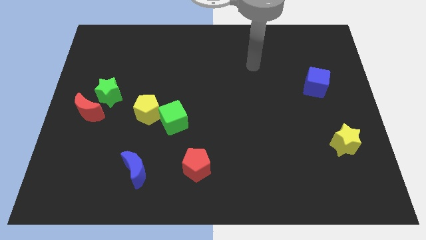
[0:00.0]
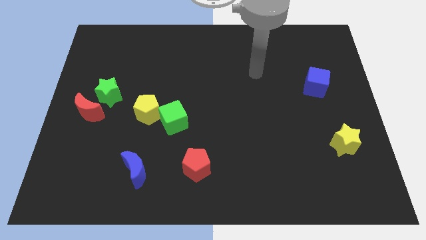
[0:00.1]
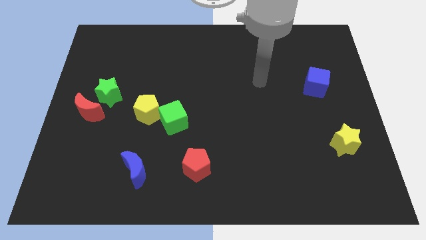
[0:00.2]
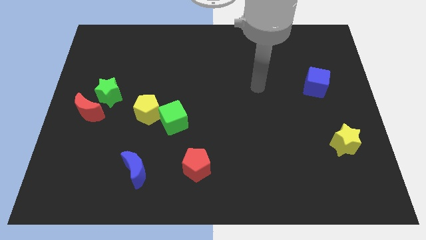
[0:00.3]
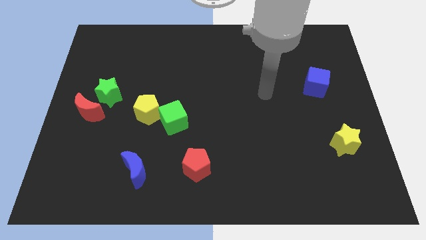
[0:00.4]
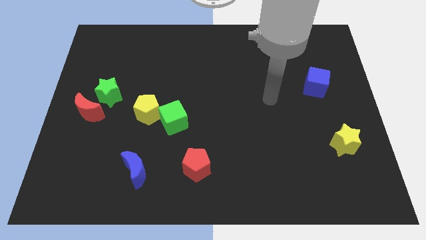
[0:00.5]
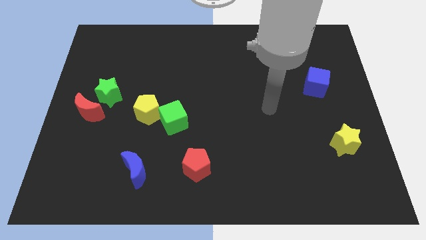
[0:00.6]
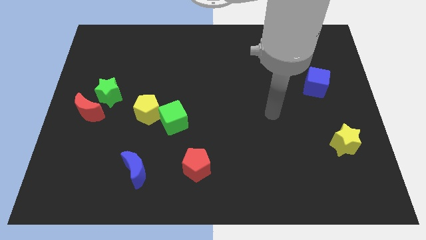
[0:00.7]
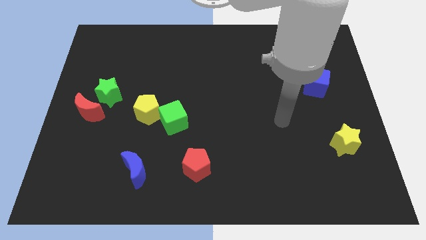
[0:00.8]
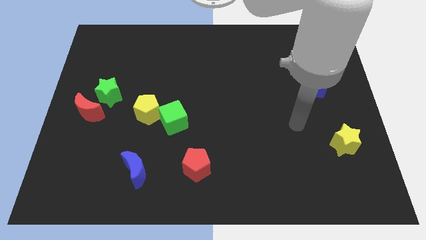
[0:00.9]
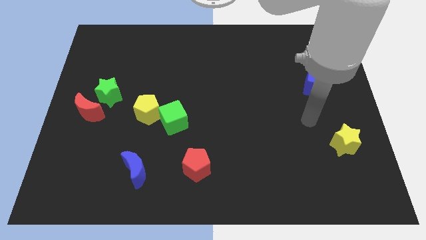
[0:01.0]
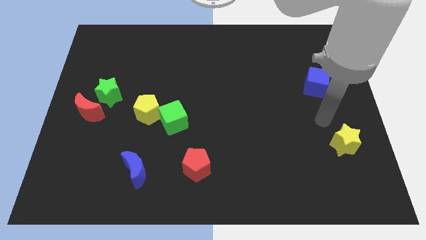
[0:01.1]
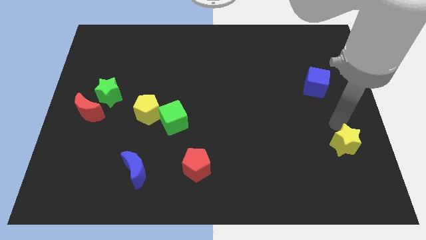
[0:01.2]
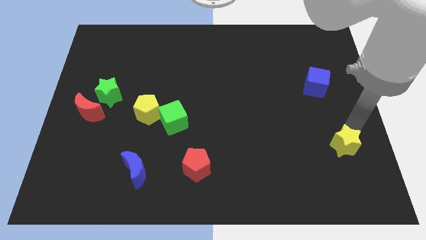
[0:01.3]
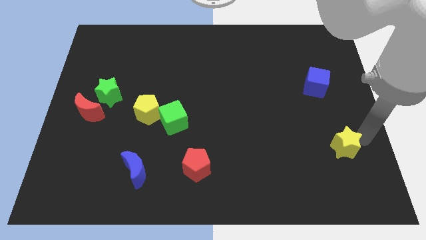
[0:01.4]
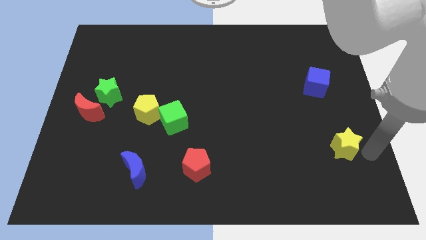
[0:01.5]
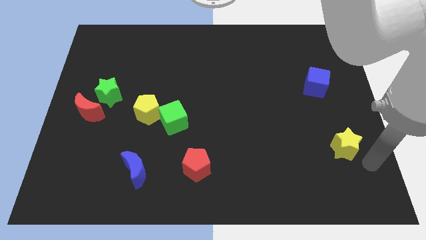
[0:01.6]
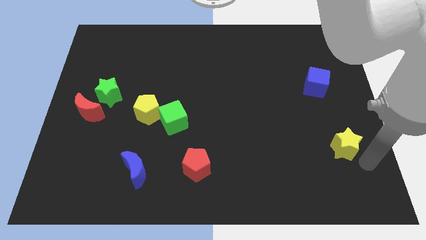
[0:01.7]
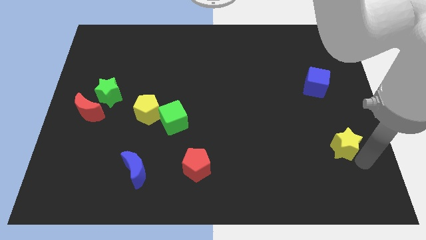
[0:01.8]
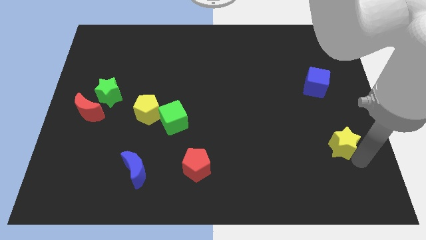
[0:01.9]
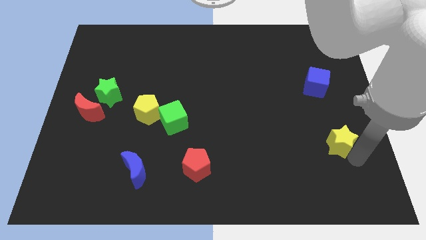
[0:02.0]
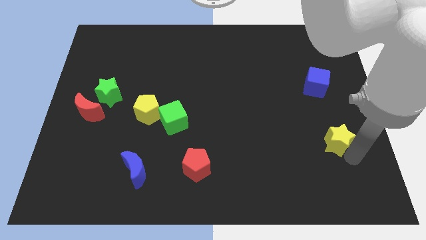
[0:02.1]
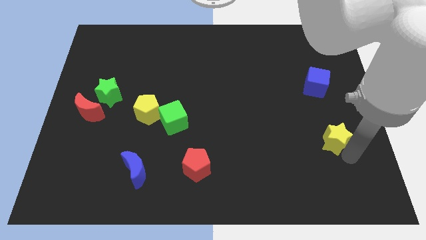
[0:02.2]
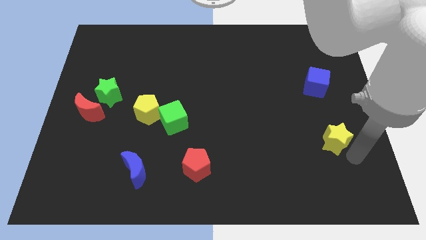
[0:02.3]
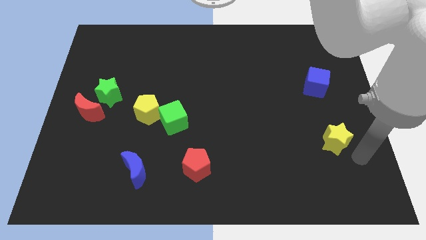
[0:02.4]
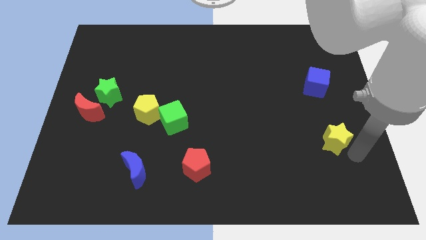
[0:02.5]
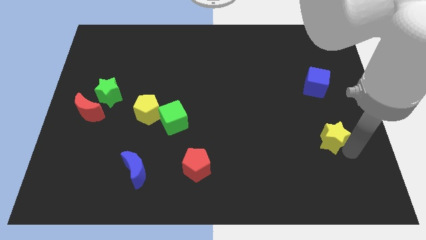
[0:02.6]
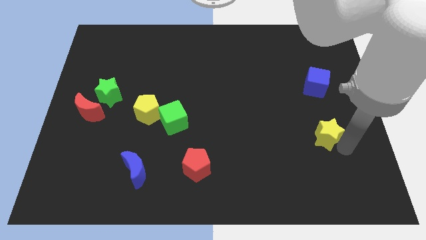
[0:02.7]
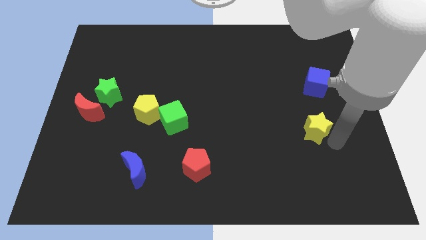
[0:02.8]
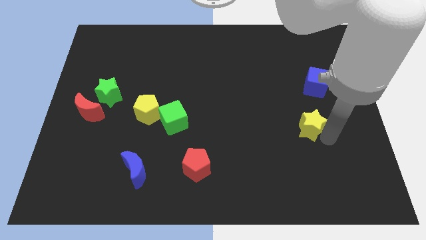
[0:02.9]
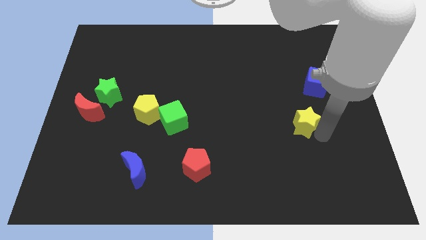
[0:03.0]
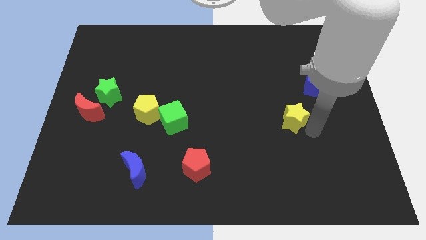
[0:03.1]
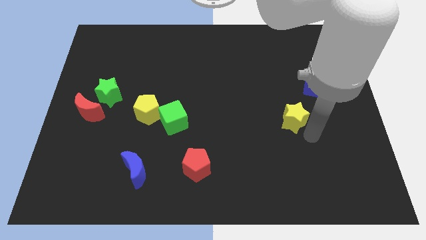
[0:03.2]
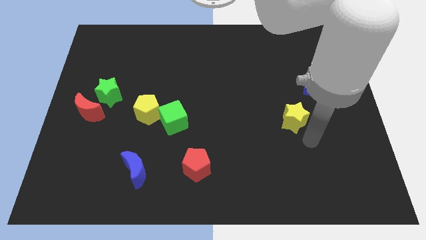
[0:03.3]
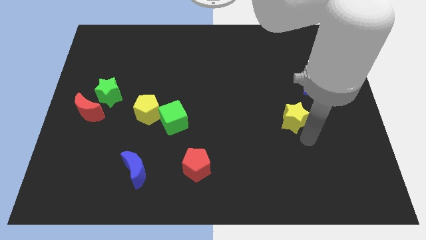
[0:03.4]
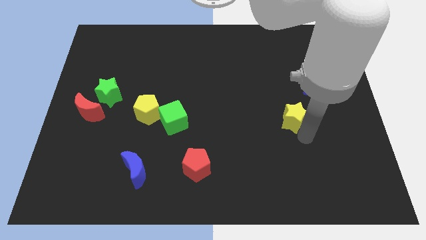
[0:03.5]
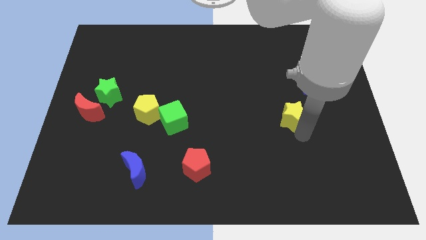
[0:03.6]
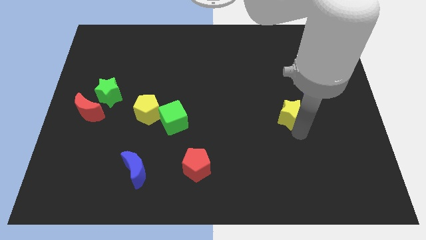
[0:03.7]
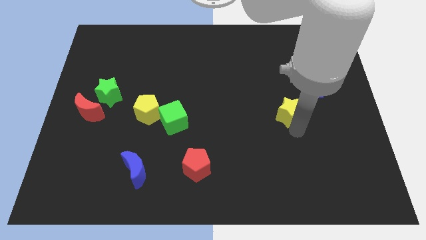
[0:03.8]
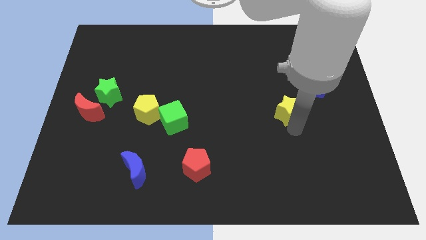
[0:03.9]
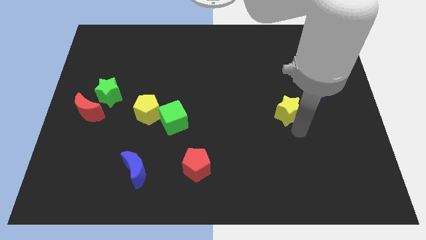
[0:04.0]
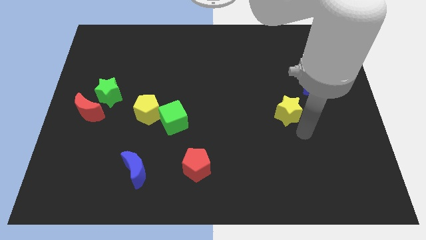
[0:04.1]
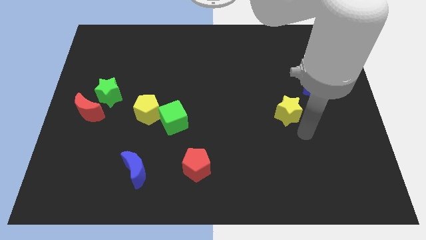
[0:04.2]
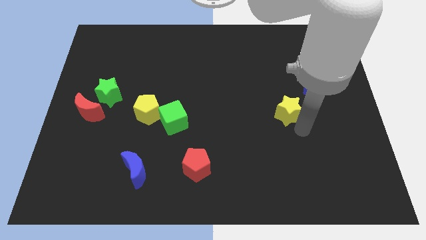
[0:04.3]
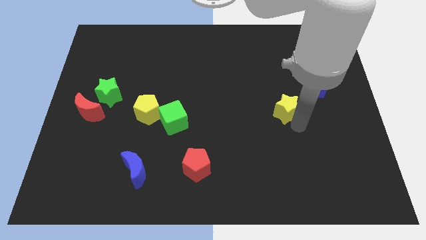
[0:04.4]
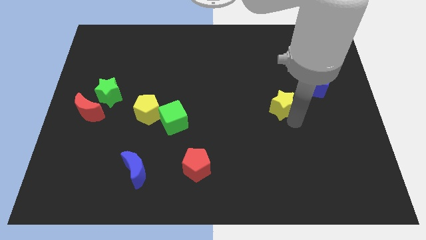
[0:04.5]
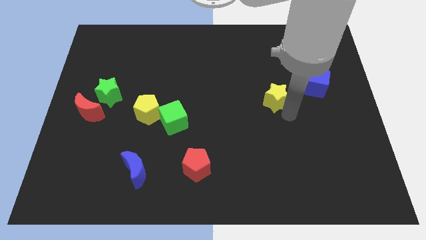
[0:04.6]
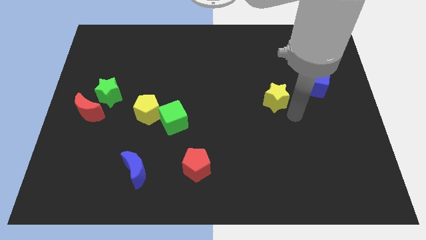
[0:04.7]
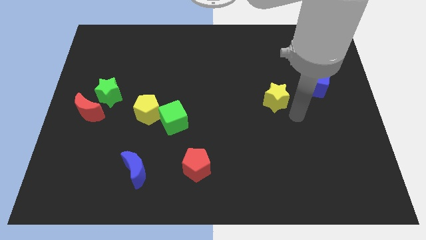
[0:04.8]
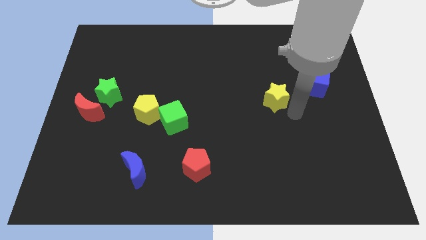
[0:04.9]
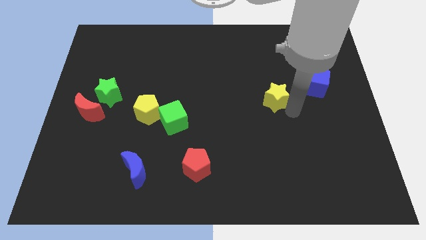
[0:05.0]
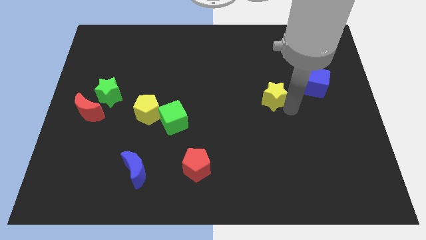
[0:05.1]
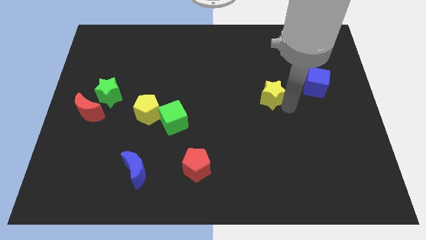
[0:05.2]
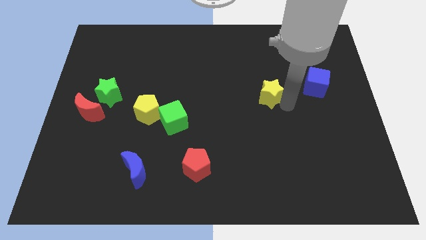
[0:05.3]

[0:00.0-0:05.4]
push the yellow star diagonally up and left

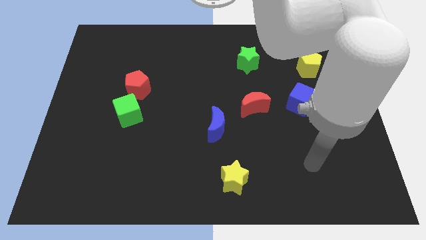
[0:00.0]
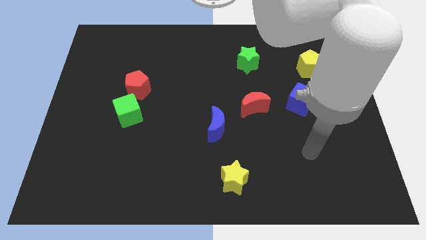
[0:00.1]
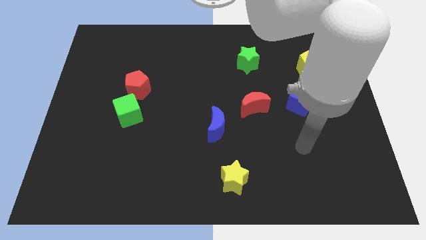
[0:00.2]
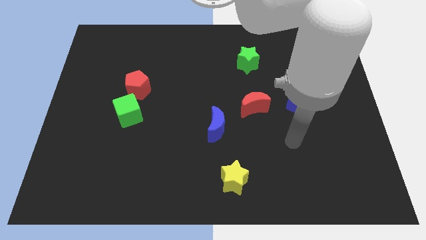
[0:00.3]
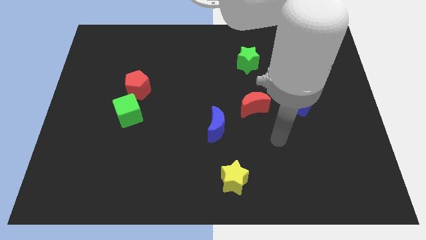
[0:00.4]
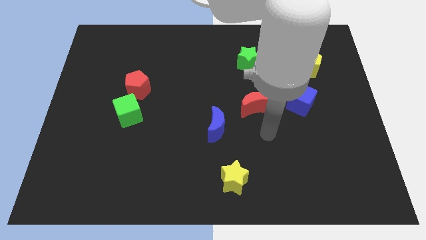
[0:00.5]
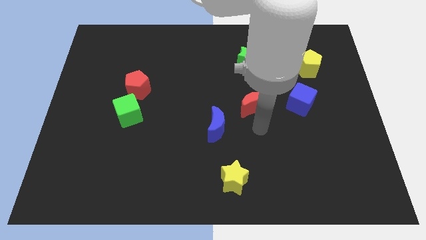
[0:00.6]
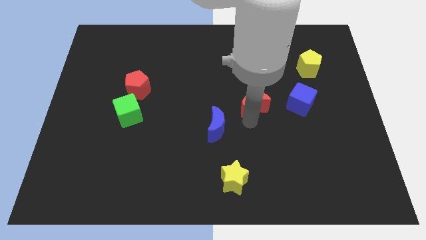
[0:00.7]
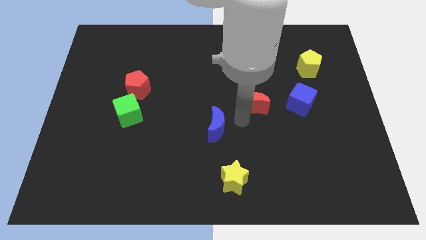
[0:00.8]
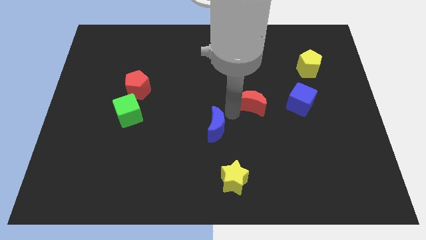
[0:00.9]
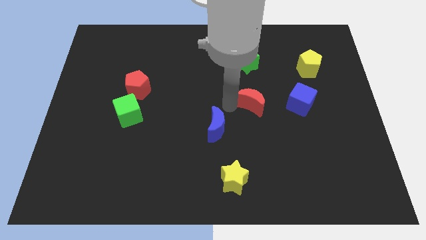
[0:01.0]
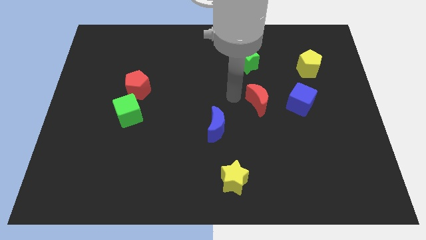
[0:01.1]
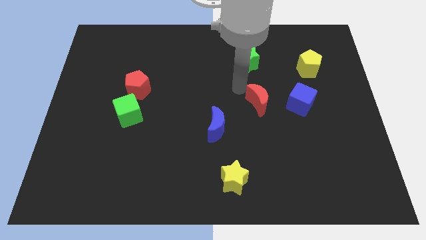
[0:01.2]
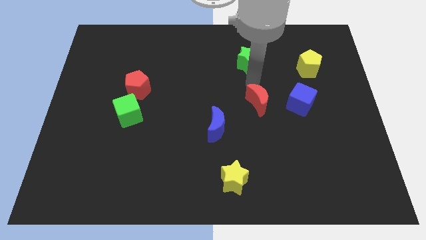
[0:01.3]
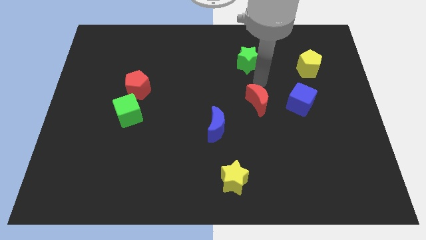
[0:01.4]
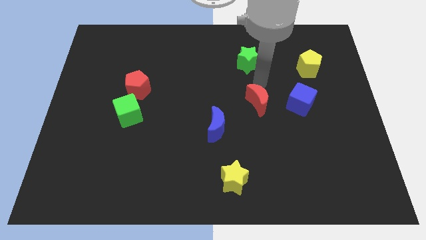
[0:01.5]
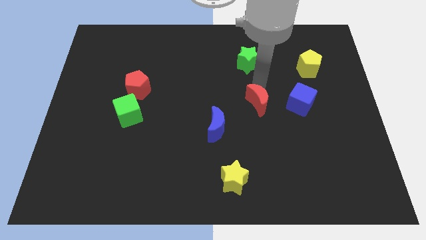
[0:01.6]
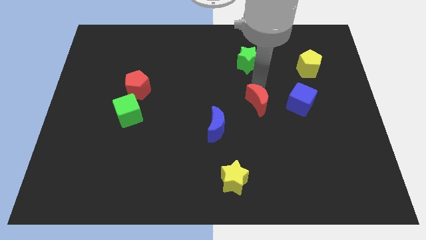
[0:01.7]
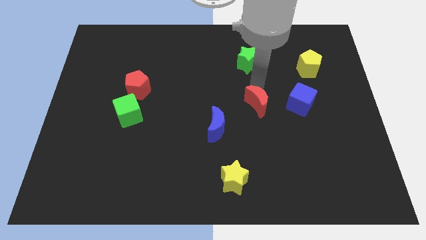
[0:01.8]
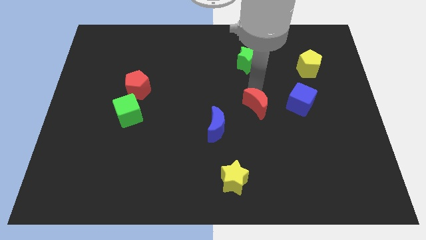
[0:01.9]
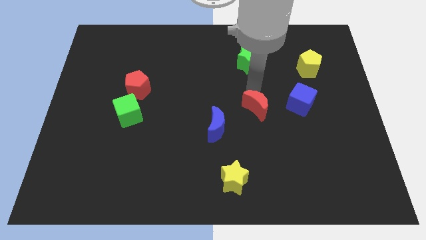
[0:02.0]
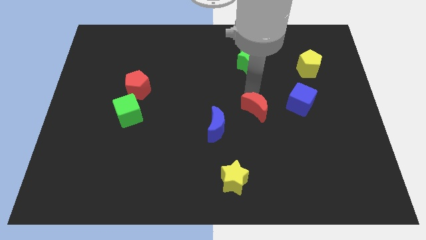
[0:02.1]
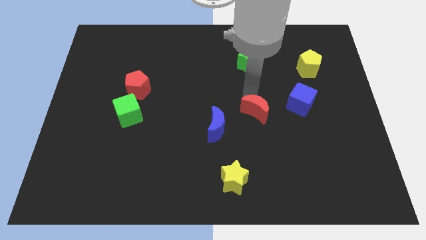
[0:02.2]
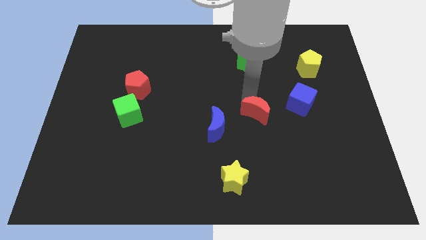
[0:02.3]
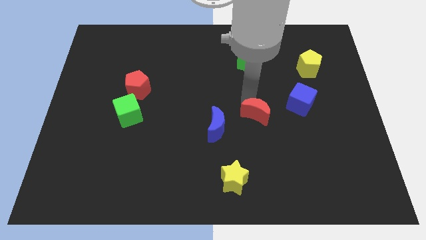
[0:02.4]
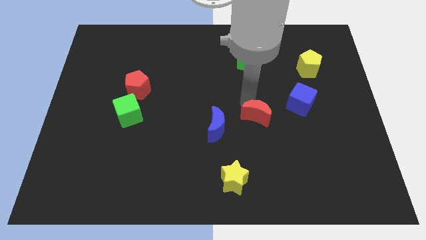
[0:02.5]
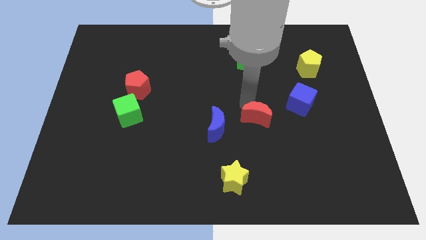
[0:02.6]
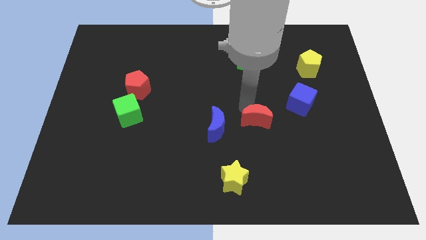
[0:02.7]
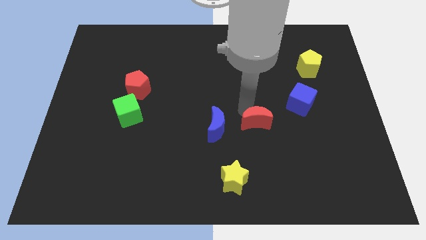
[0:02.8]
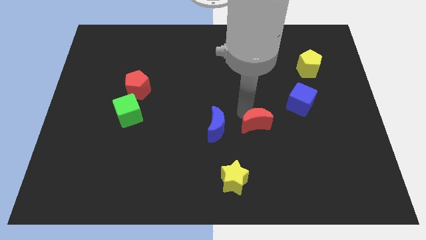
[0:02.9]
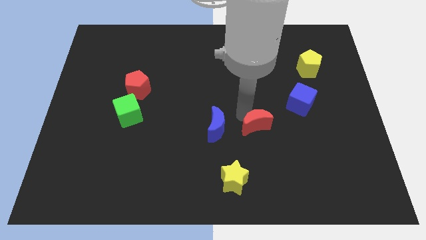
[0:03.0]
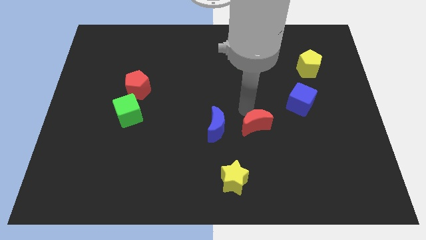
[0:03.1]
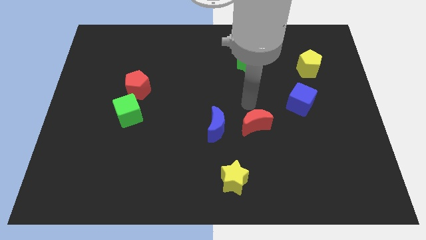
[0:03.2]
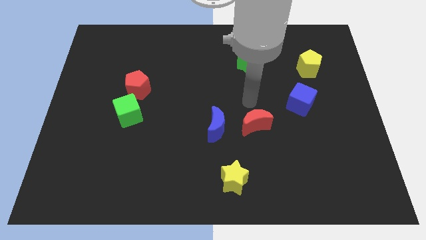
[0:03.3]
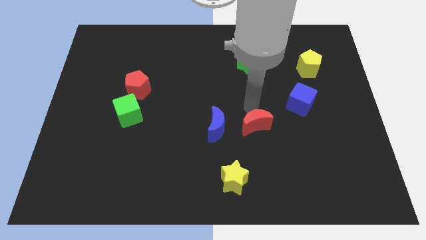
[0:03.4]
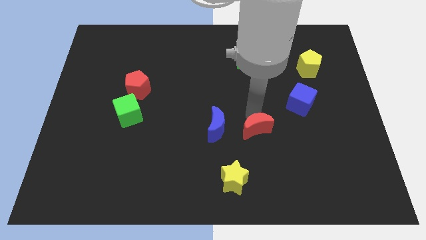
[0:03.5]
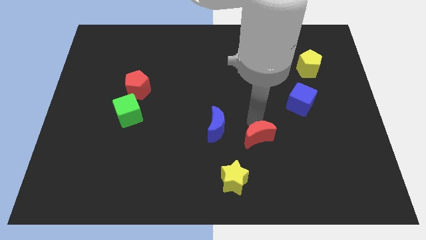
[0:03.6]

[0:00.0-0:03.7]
slightly slide the red moon downwards
